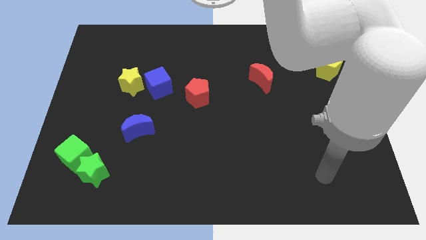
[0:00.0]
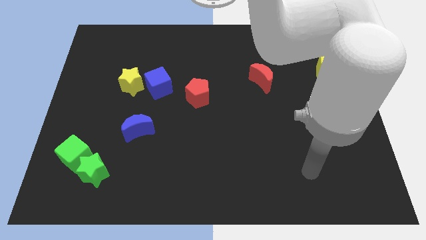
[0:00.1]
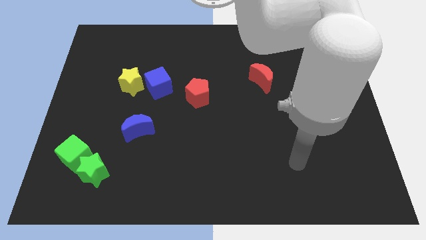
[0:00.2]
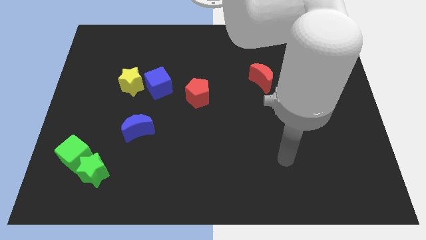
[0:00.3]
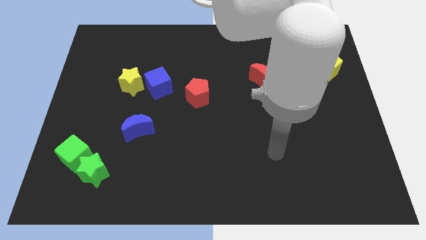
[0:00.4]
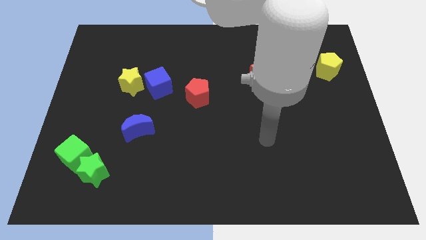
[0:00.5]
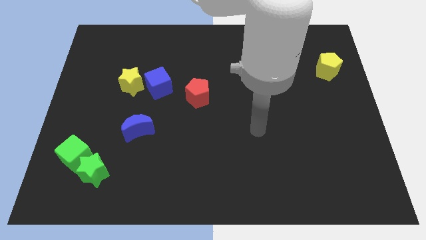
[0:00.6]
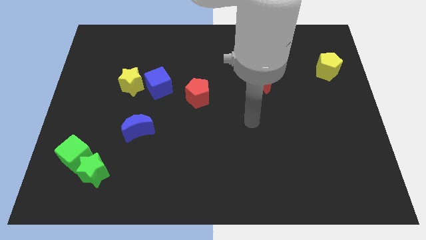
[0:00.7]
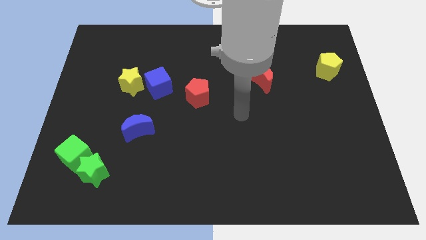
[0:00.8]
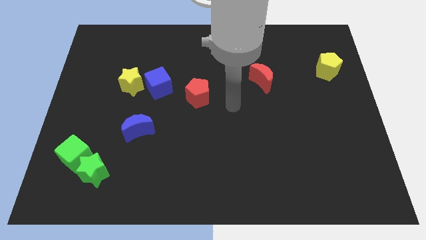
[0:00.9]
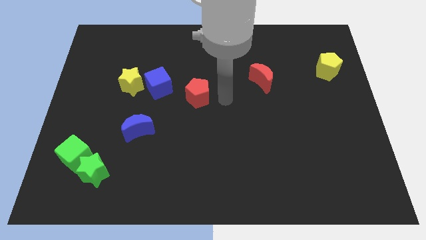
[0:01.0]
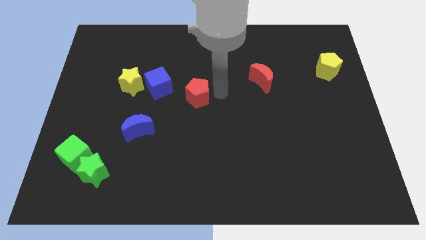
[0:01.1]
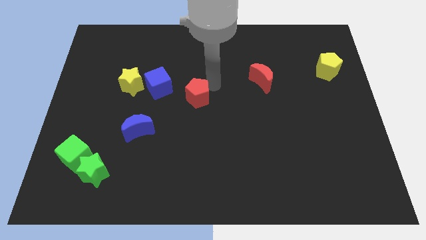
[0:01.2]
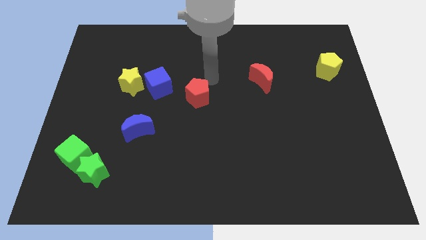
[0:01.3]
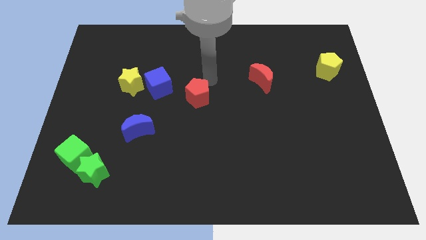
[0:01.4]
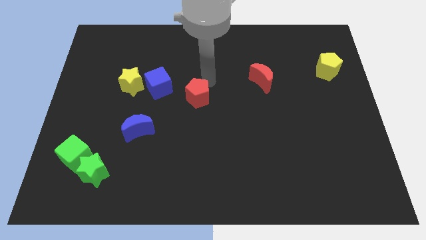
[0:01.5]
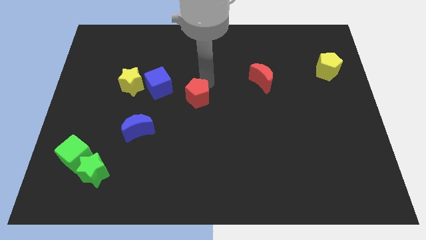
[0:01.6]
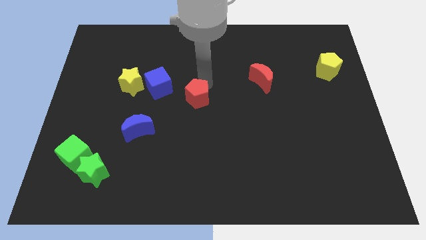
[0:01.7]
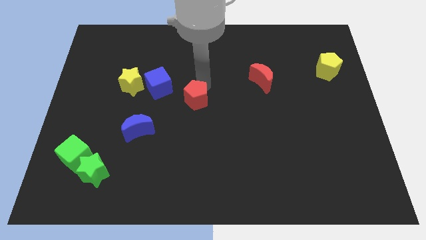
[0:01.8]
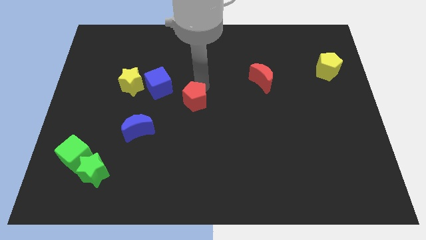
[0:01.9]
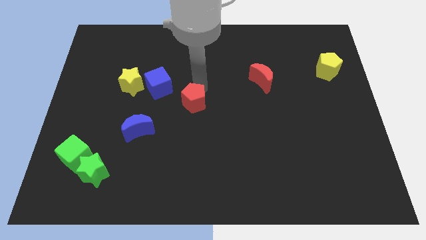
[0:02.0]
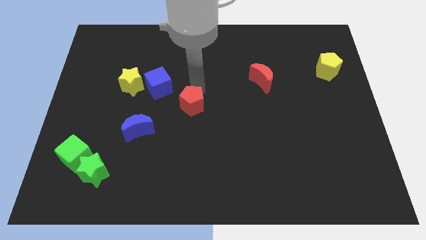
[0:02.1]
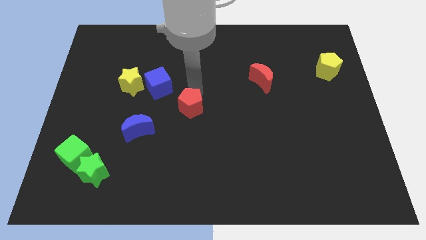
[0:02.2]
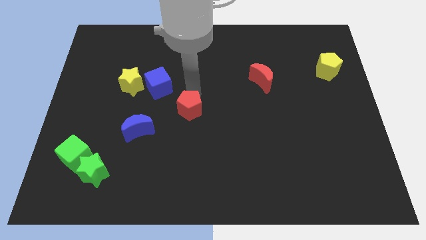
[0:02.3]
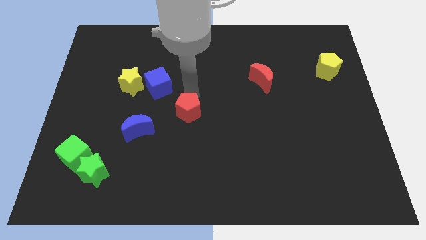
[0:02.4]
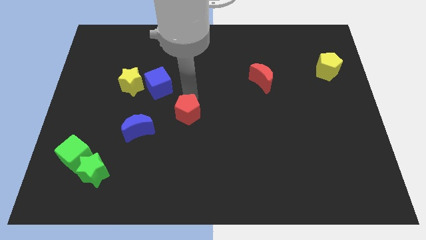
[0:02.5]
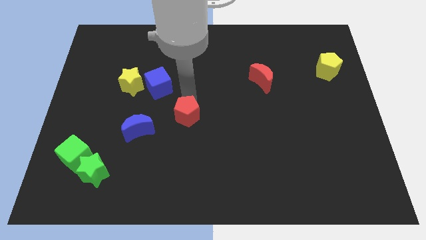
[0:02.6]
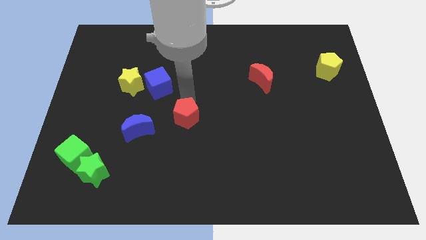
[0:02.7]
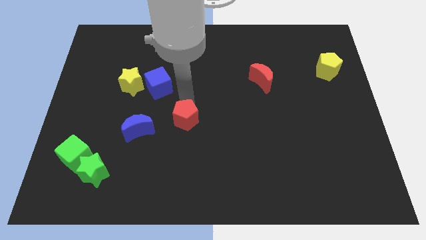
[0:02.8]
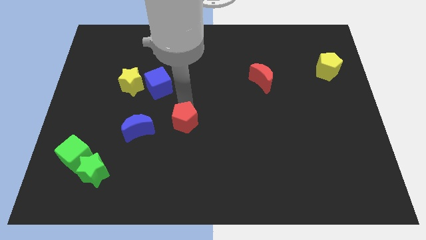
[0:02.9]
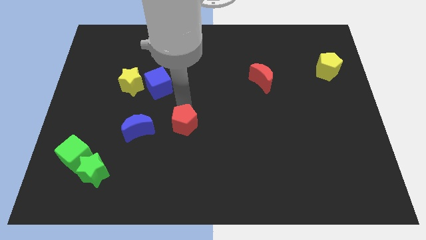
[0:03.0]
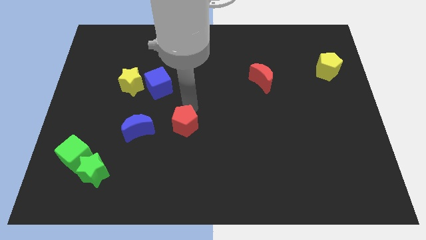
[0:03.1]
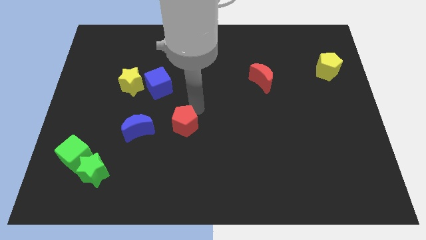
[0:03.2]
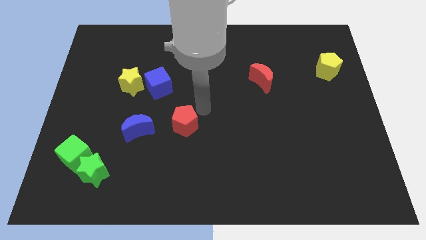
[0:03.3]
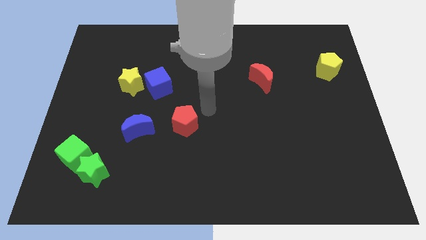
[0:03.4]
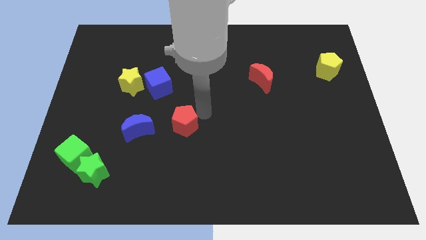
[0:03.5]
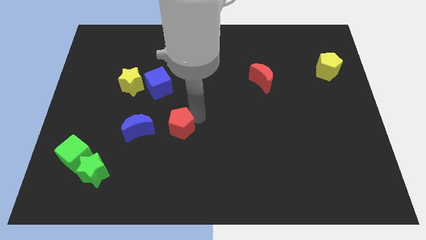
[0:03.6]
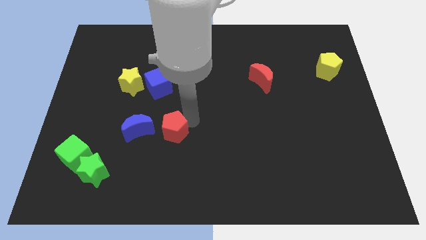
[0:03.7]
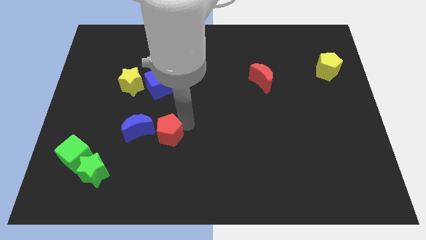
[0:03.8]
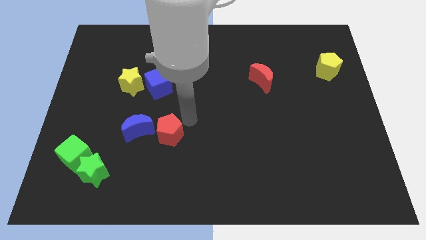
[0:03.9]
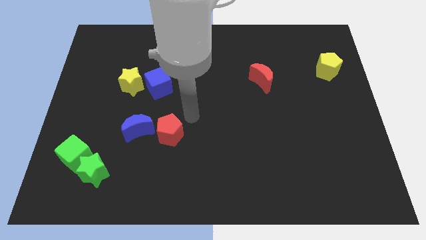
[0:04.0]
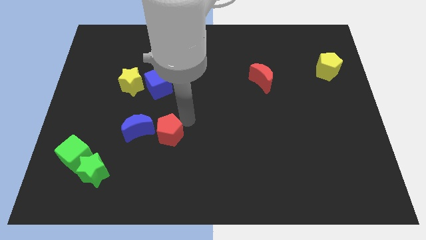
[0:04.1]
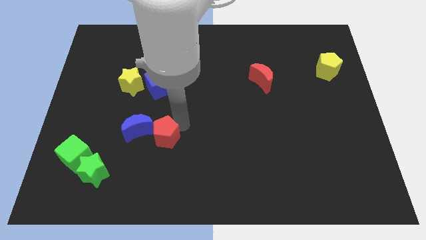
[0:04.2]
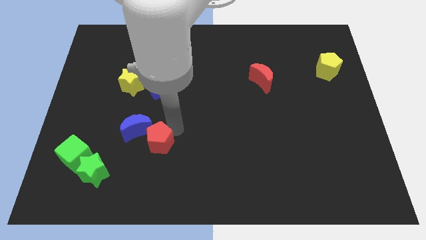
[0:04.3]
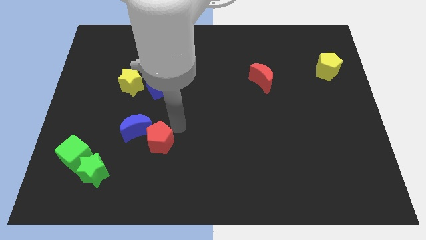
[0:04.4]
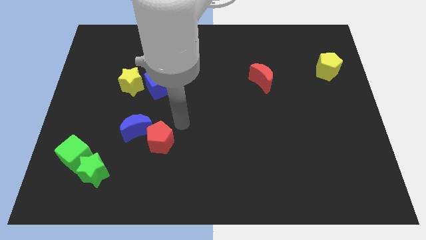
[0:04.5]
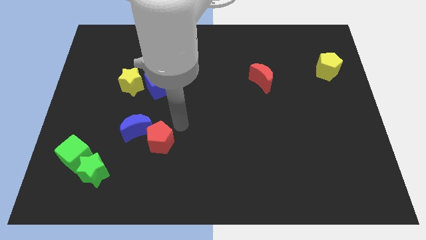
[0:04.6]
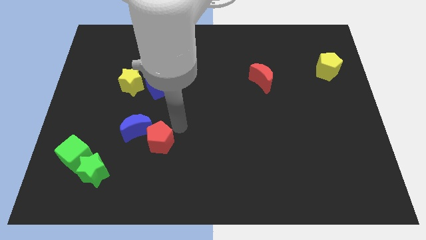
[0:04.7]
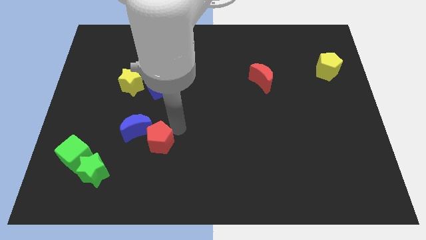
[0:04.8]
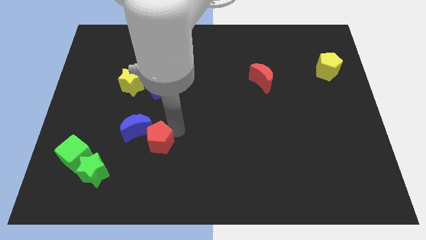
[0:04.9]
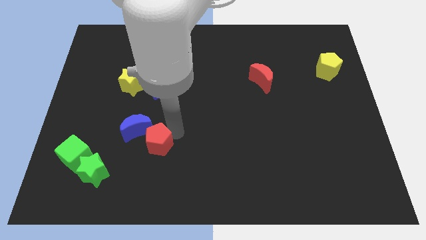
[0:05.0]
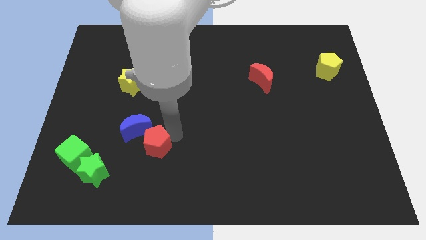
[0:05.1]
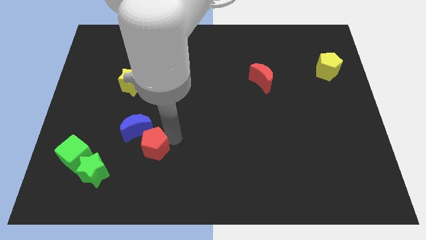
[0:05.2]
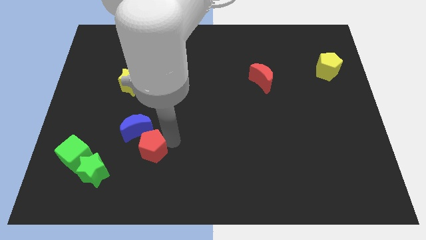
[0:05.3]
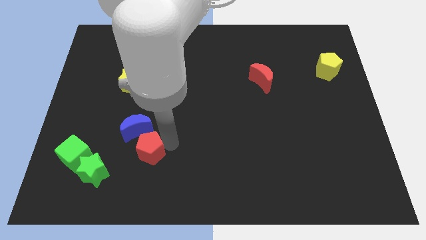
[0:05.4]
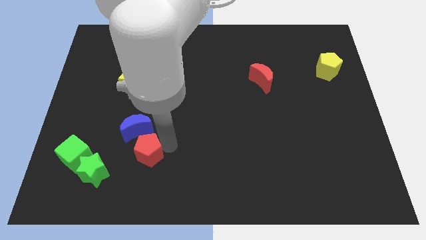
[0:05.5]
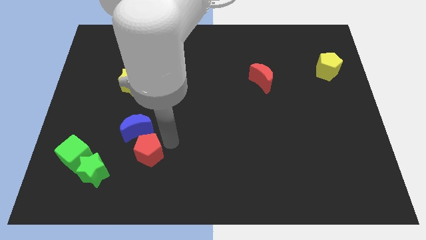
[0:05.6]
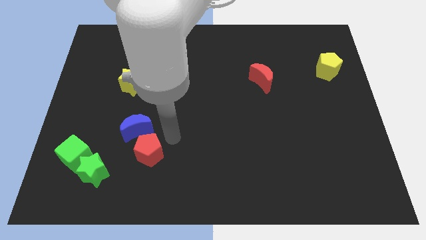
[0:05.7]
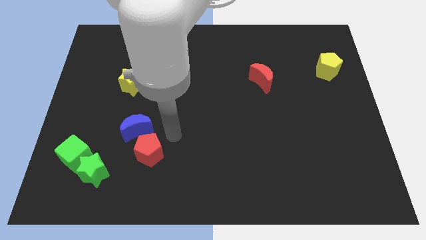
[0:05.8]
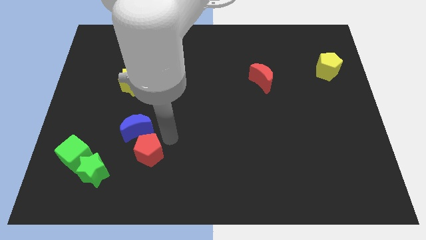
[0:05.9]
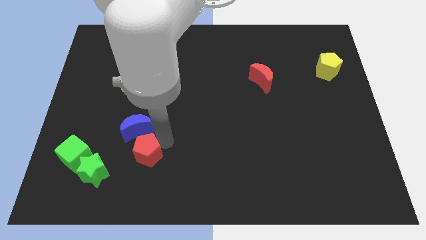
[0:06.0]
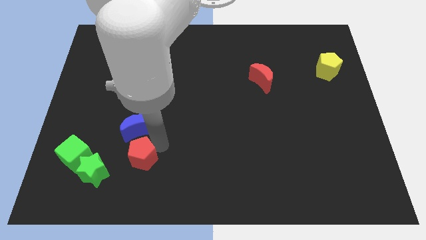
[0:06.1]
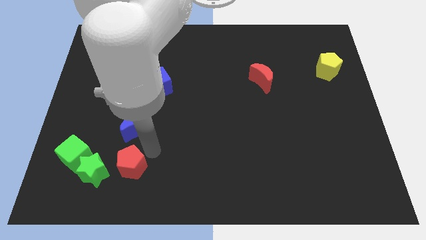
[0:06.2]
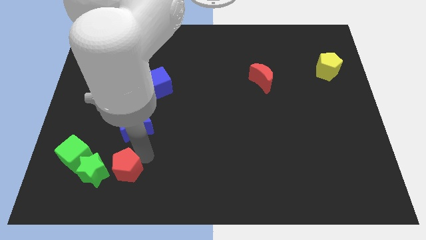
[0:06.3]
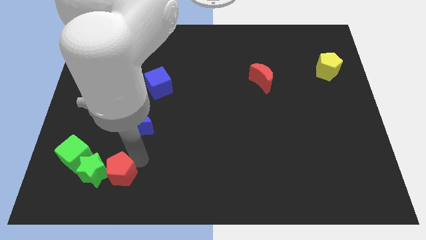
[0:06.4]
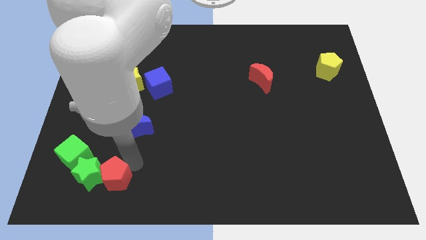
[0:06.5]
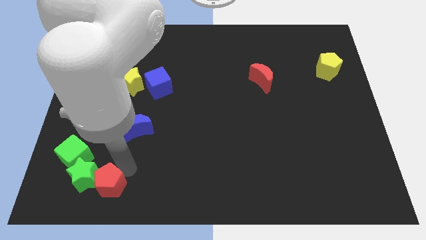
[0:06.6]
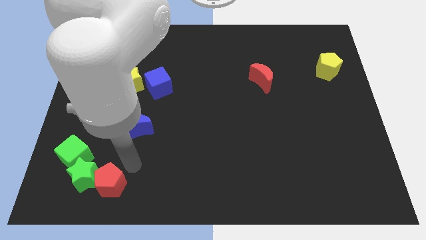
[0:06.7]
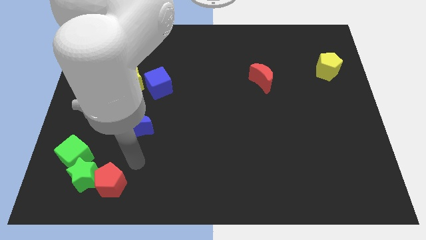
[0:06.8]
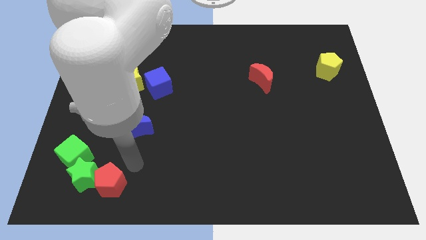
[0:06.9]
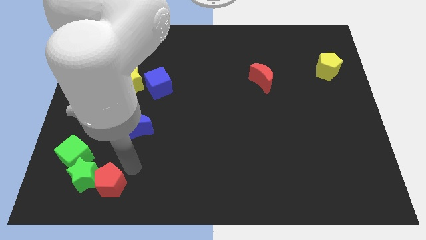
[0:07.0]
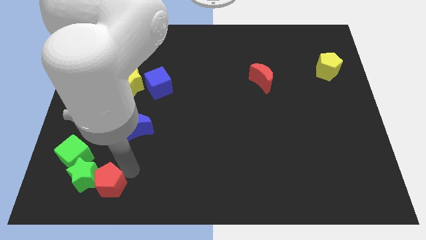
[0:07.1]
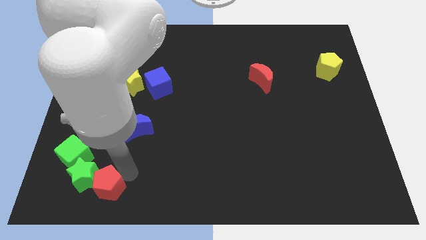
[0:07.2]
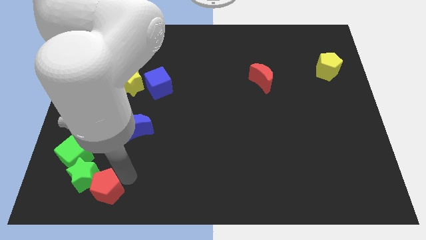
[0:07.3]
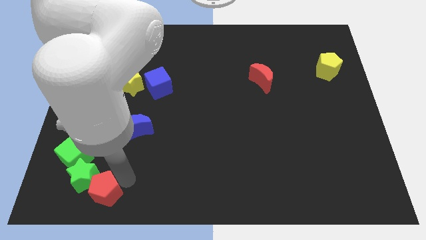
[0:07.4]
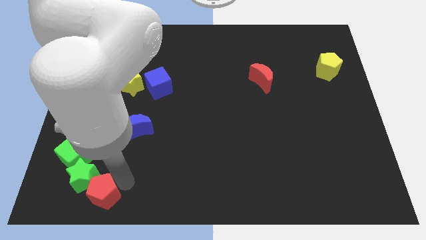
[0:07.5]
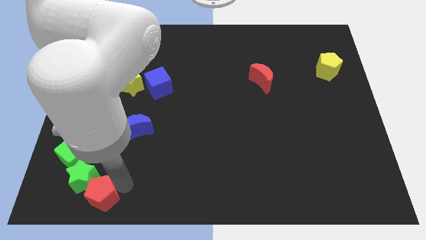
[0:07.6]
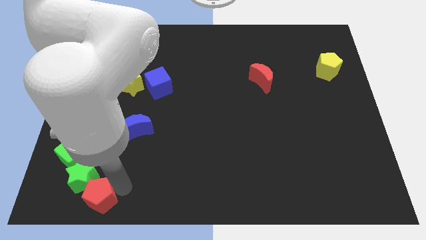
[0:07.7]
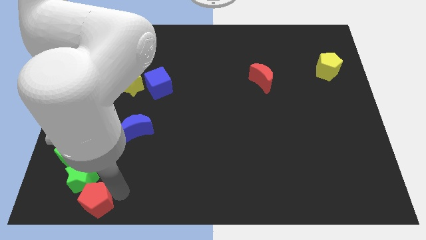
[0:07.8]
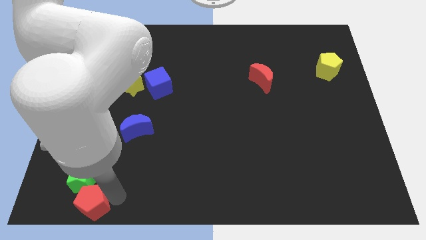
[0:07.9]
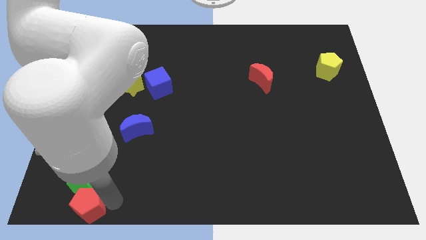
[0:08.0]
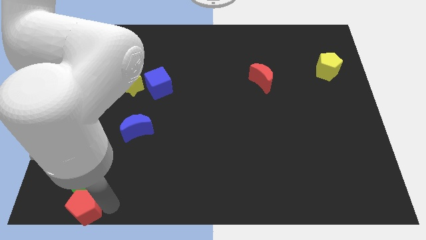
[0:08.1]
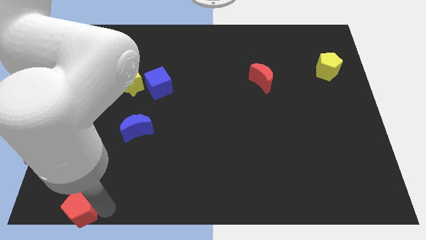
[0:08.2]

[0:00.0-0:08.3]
put the red pentagon to the bottom left of the board
